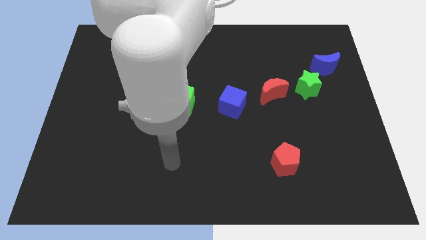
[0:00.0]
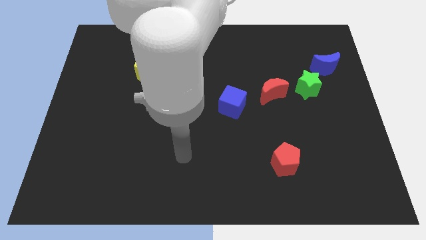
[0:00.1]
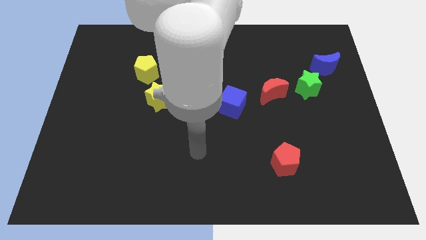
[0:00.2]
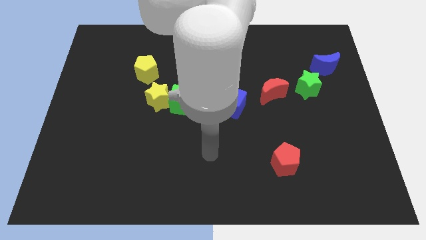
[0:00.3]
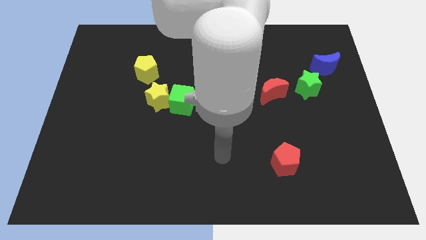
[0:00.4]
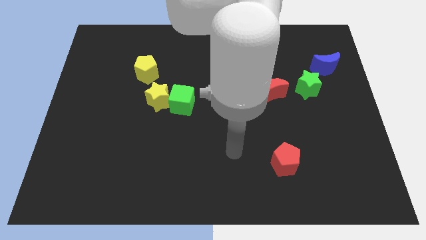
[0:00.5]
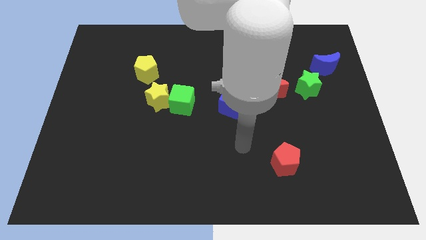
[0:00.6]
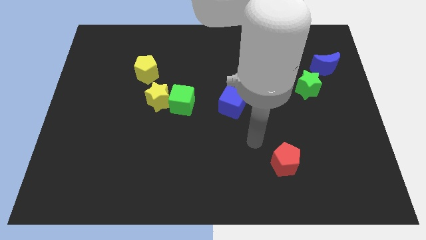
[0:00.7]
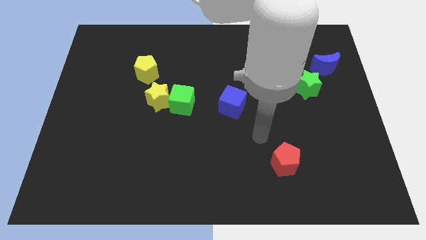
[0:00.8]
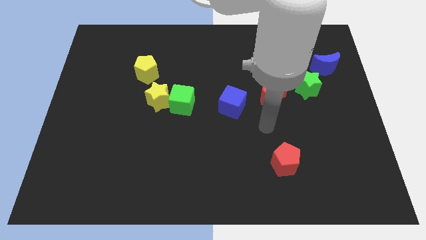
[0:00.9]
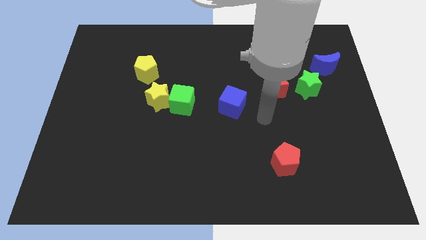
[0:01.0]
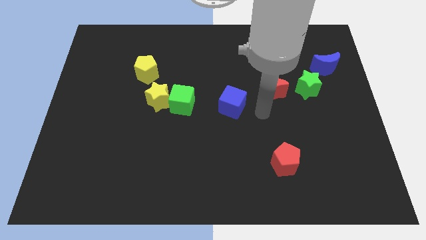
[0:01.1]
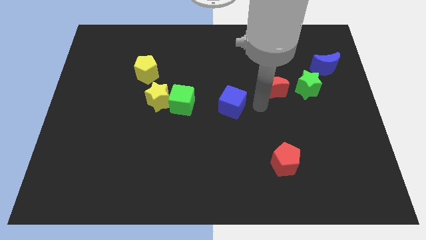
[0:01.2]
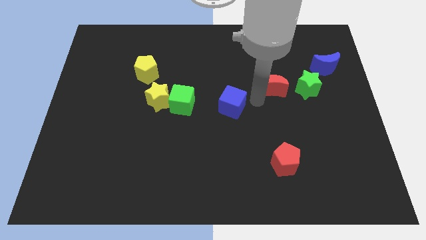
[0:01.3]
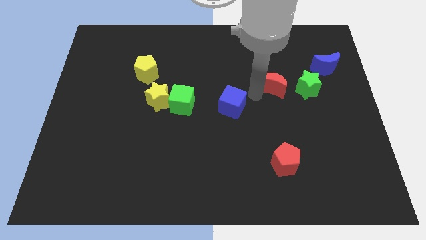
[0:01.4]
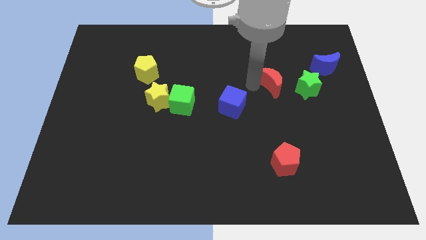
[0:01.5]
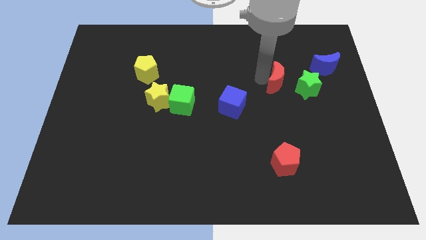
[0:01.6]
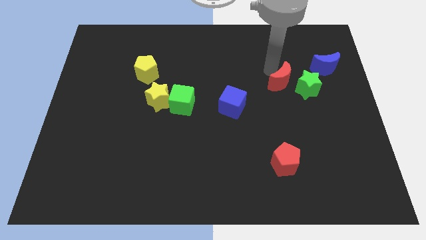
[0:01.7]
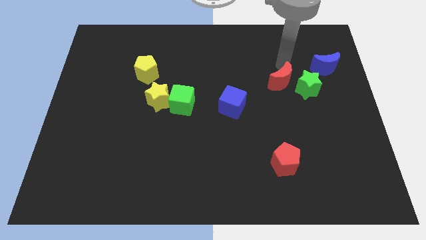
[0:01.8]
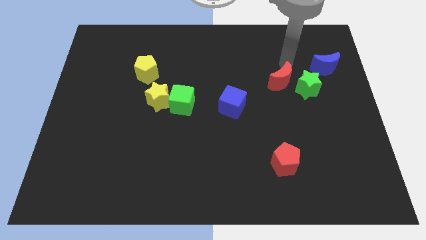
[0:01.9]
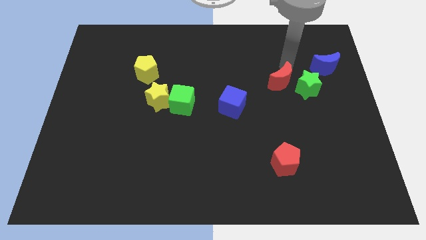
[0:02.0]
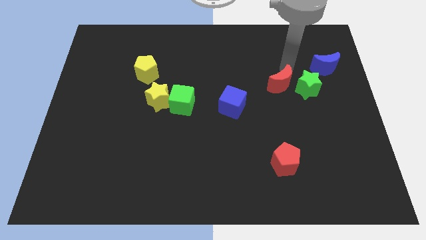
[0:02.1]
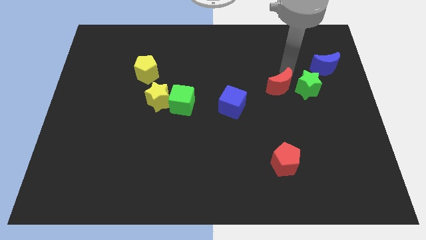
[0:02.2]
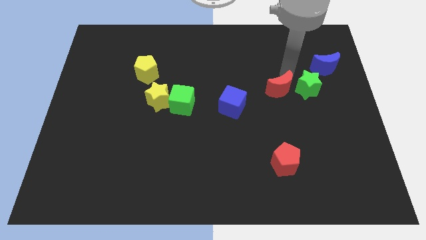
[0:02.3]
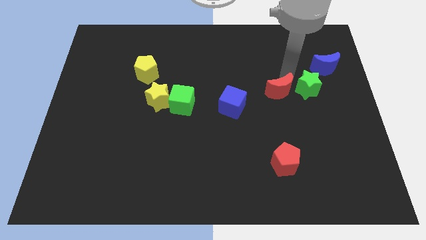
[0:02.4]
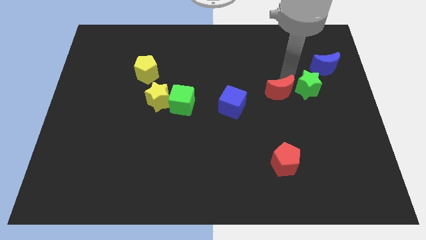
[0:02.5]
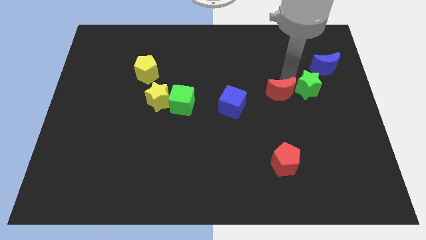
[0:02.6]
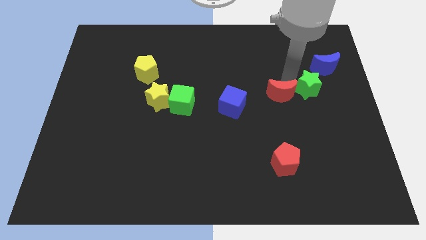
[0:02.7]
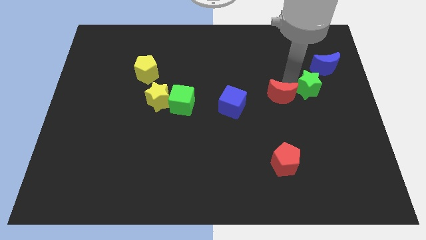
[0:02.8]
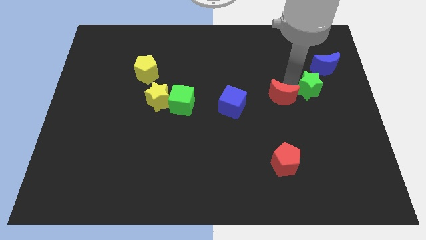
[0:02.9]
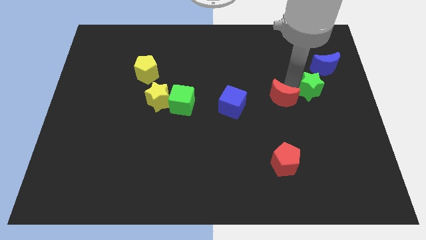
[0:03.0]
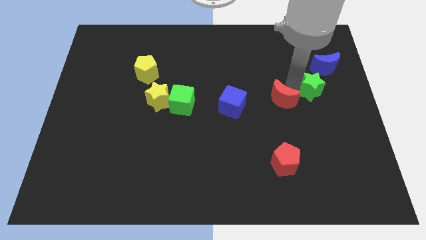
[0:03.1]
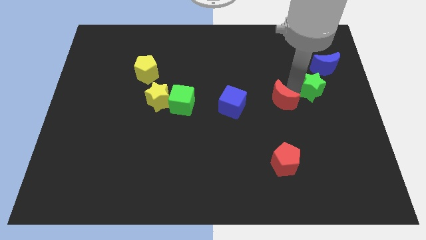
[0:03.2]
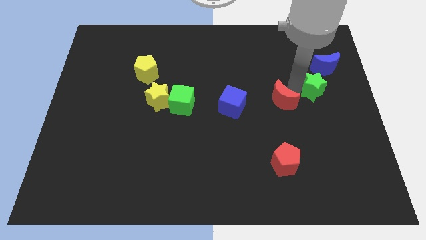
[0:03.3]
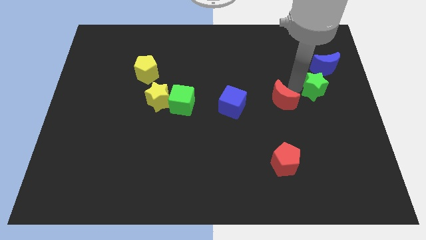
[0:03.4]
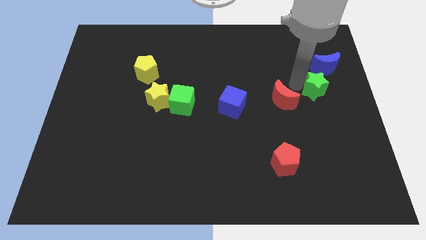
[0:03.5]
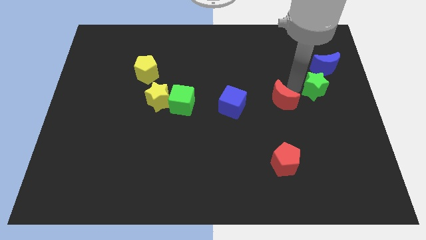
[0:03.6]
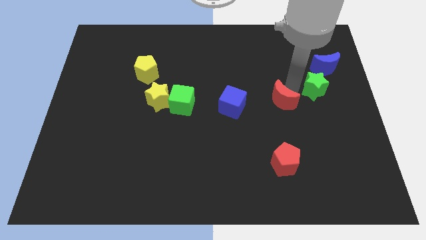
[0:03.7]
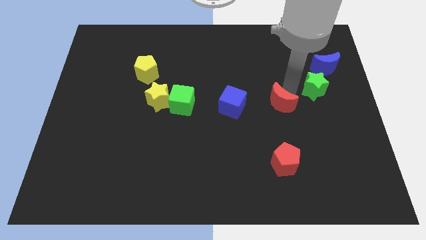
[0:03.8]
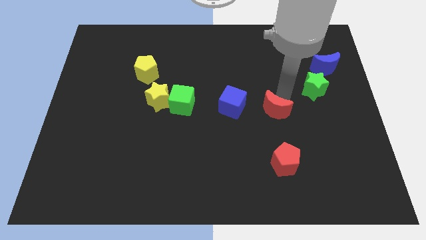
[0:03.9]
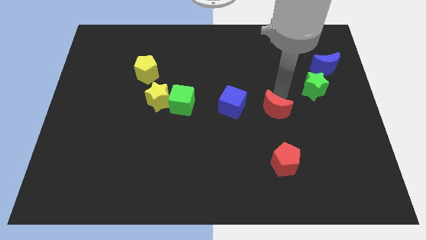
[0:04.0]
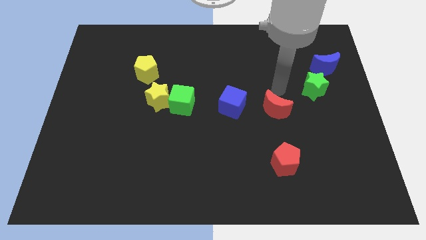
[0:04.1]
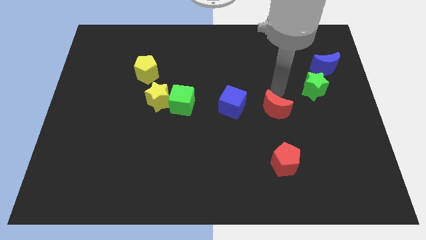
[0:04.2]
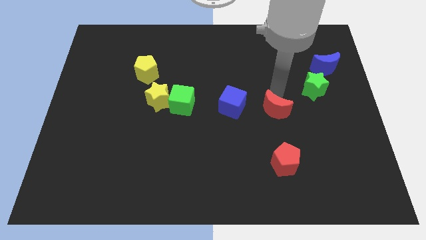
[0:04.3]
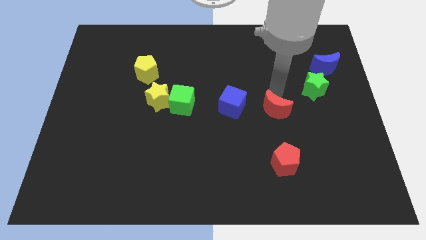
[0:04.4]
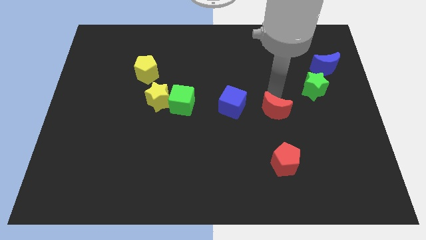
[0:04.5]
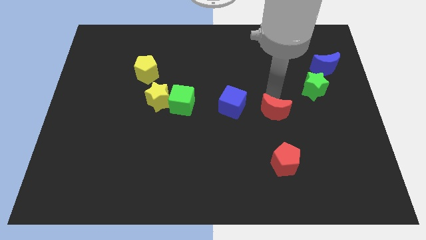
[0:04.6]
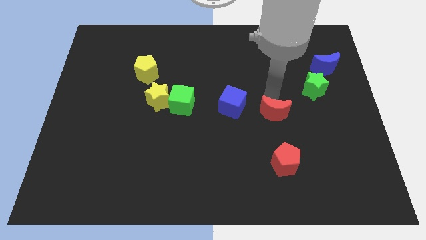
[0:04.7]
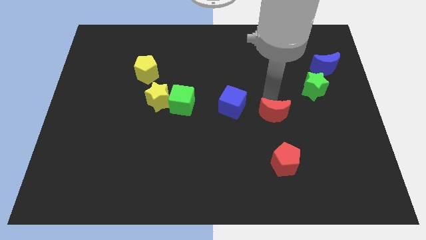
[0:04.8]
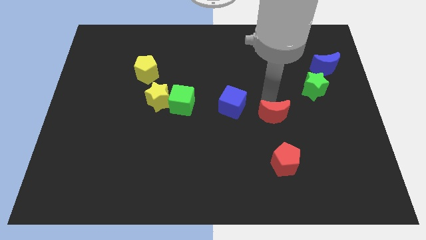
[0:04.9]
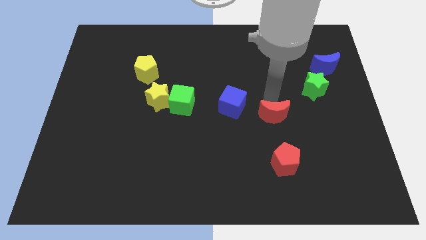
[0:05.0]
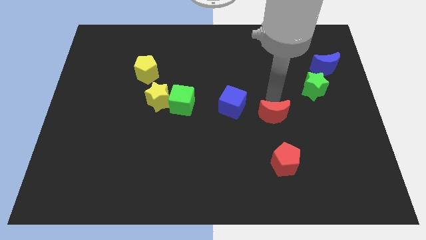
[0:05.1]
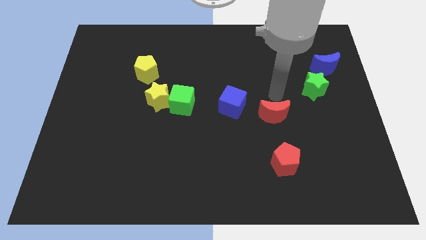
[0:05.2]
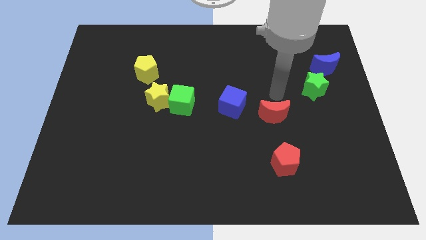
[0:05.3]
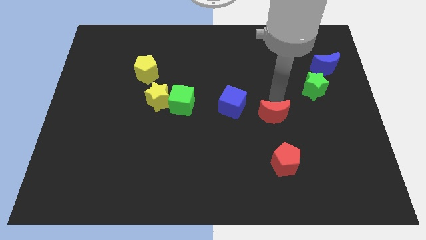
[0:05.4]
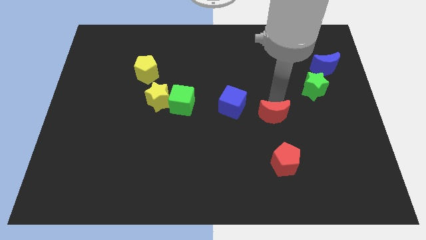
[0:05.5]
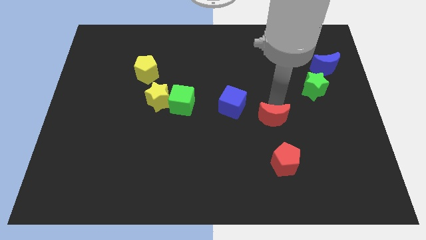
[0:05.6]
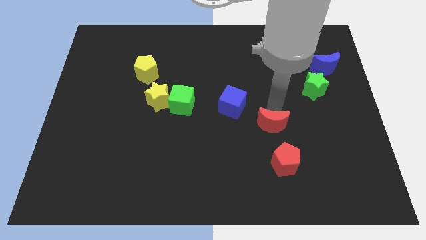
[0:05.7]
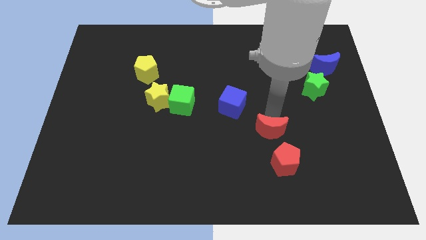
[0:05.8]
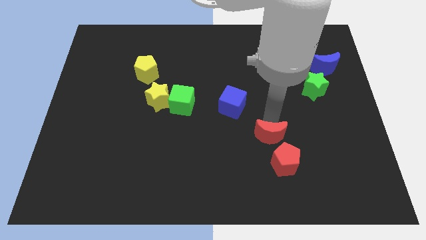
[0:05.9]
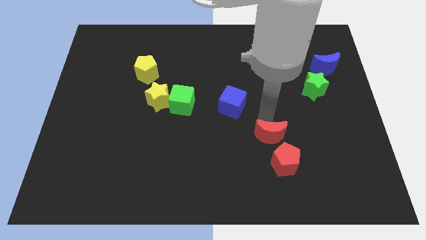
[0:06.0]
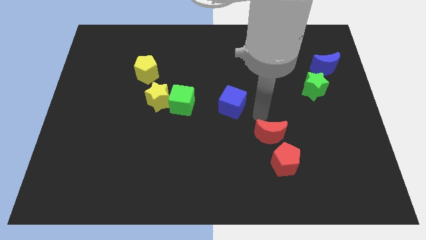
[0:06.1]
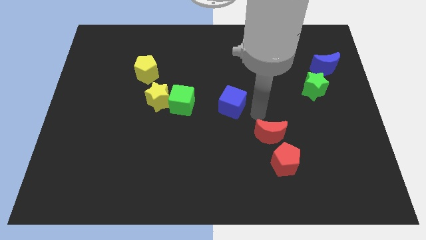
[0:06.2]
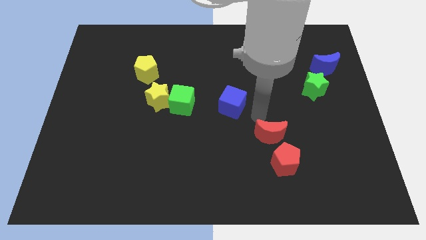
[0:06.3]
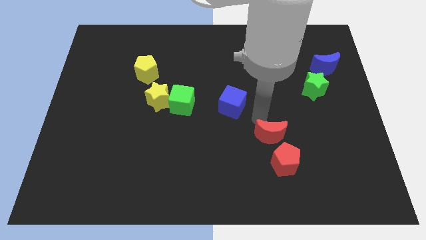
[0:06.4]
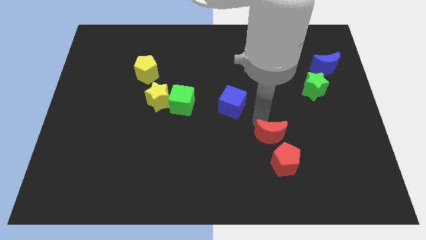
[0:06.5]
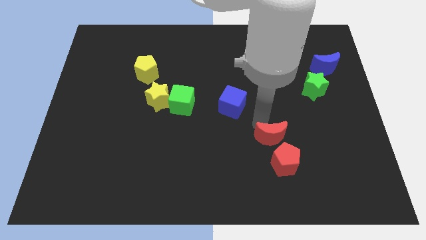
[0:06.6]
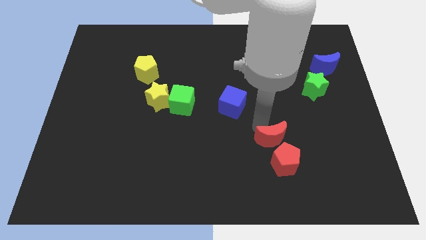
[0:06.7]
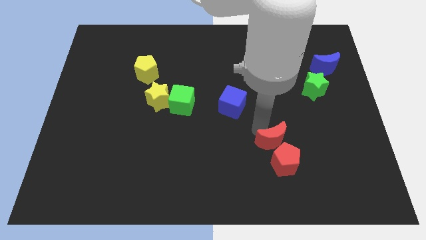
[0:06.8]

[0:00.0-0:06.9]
push the red moon to the red pentagon
